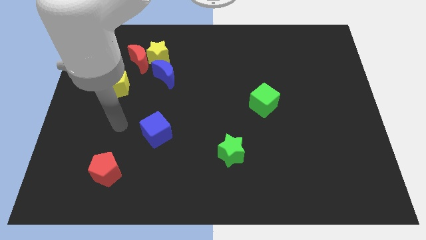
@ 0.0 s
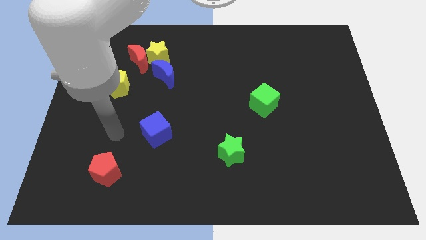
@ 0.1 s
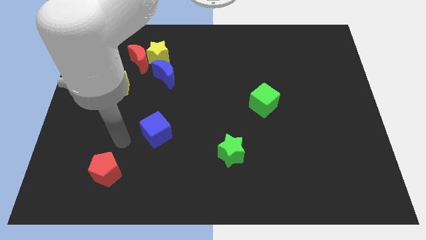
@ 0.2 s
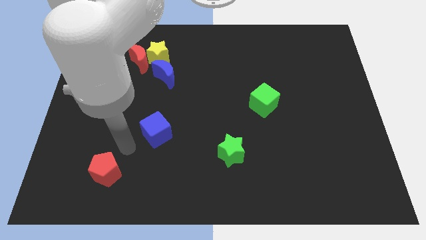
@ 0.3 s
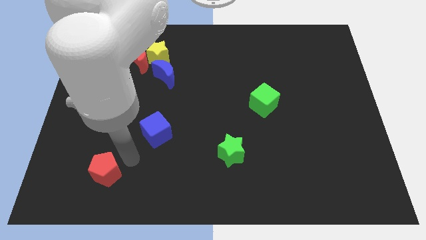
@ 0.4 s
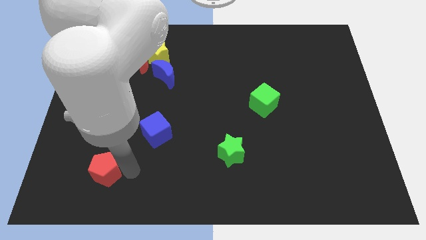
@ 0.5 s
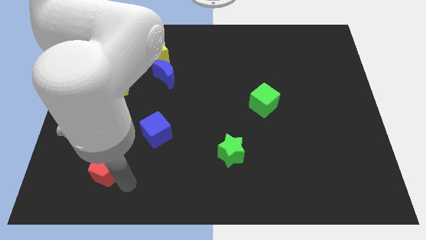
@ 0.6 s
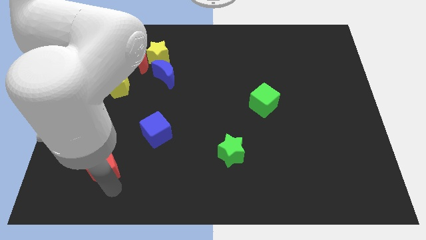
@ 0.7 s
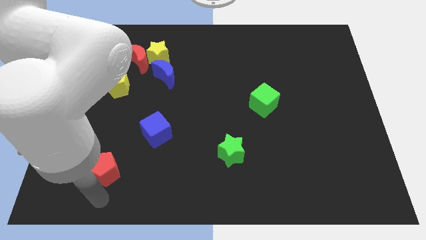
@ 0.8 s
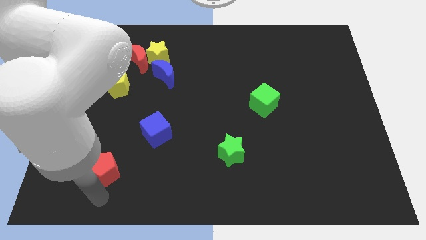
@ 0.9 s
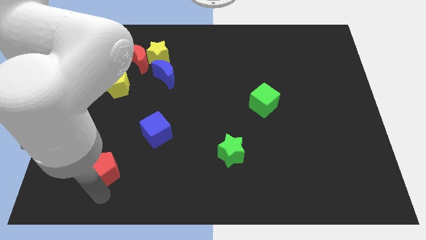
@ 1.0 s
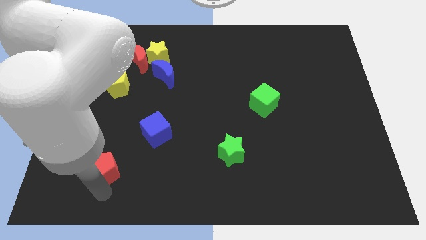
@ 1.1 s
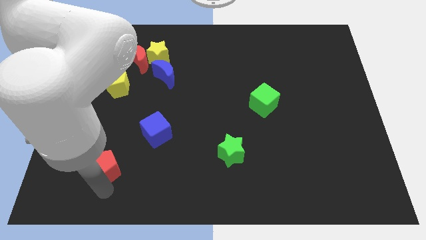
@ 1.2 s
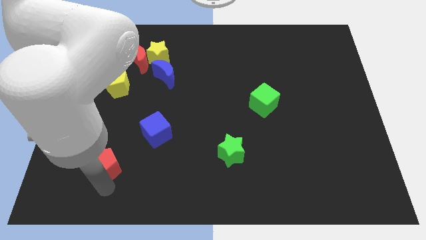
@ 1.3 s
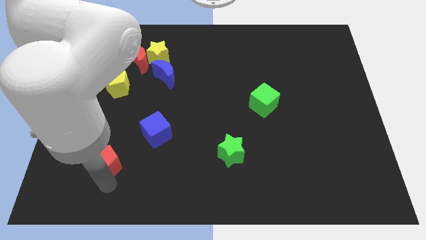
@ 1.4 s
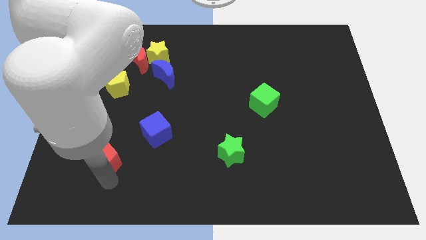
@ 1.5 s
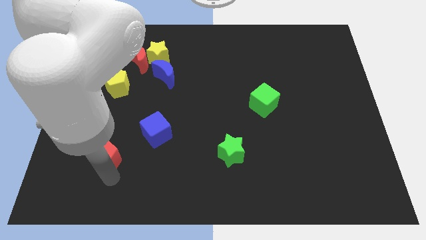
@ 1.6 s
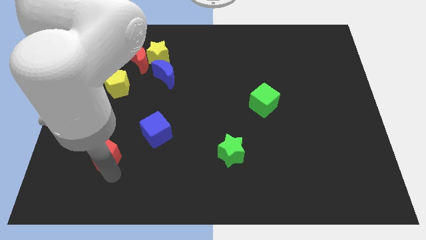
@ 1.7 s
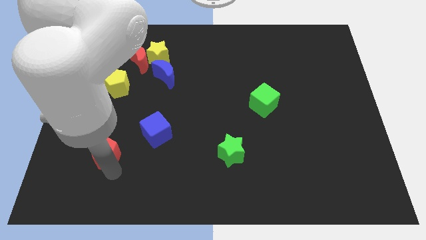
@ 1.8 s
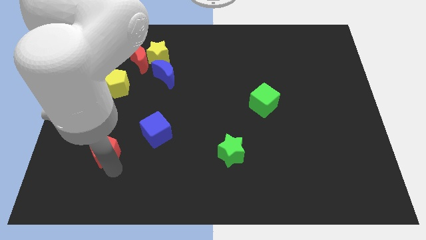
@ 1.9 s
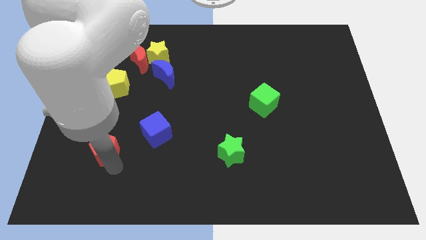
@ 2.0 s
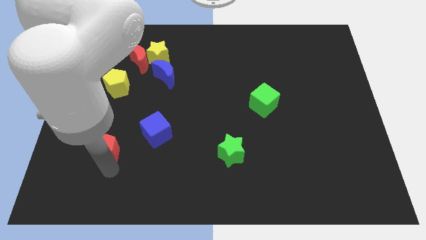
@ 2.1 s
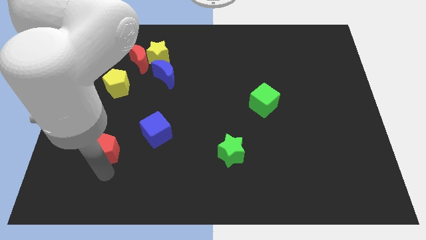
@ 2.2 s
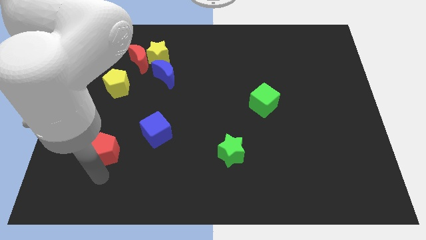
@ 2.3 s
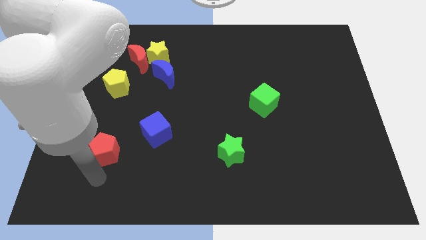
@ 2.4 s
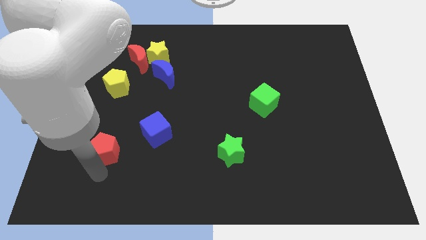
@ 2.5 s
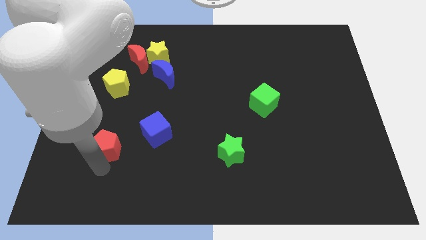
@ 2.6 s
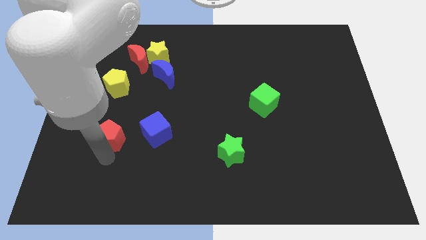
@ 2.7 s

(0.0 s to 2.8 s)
slightly push the red pentagon up

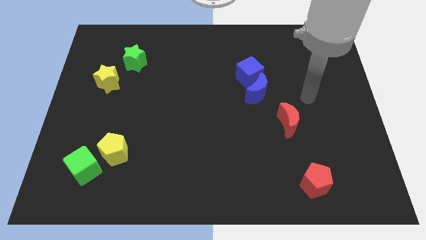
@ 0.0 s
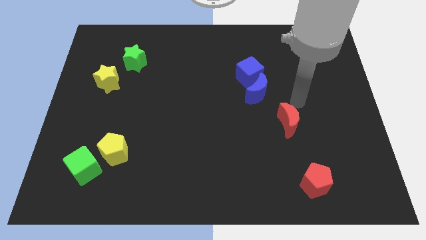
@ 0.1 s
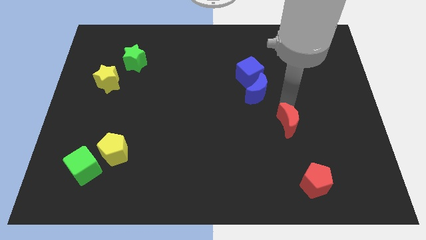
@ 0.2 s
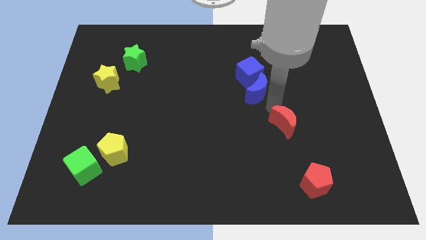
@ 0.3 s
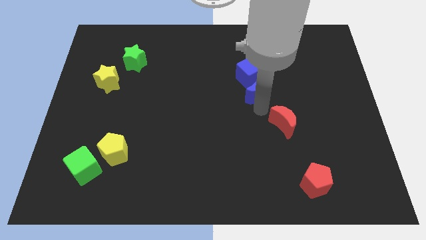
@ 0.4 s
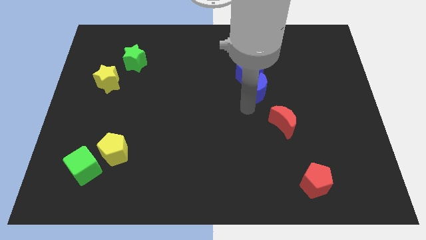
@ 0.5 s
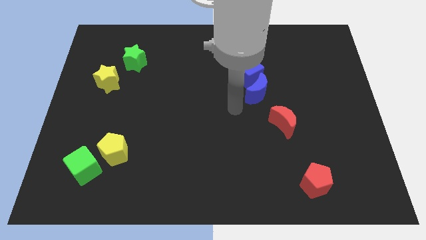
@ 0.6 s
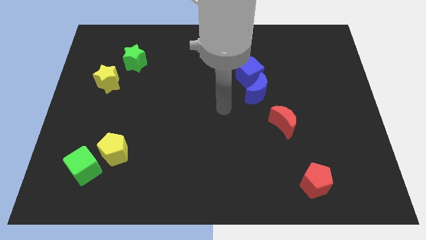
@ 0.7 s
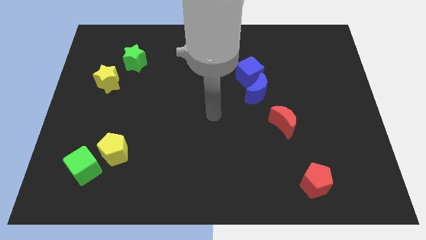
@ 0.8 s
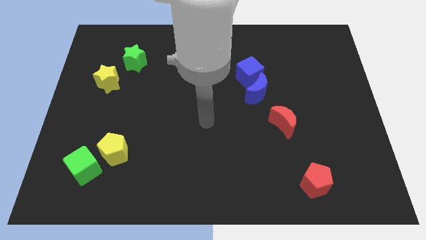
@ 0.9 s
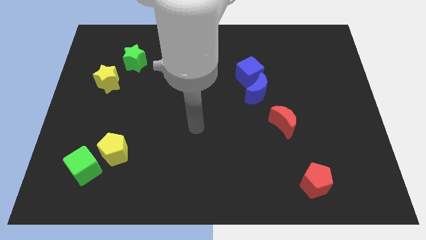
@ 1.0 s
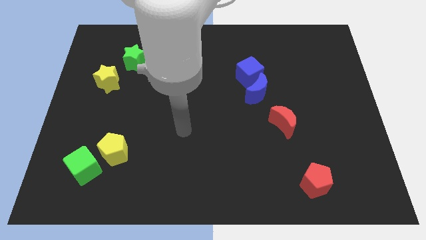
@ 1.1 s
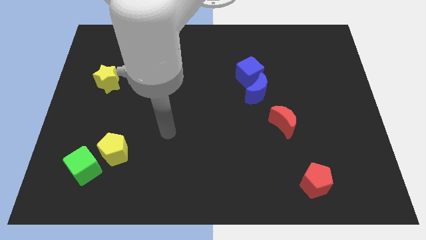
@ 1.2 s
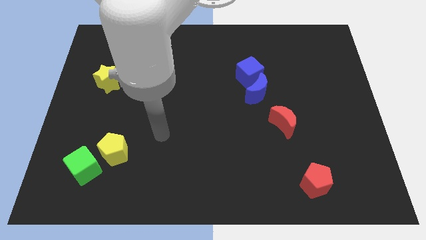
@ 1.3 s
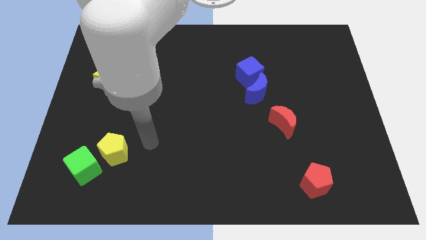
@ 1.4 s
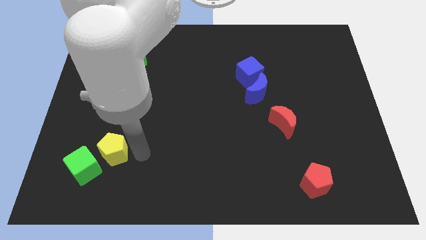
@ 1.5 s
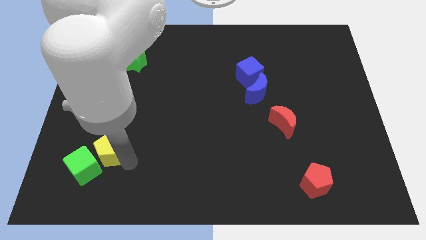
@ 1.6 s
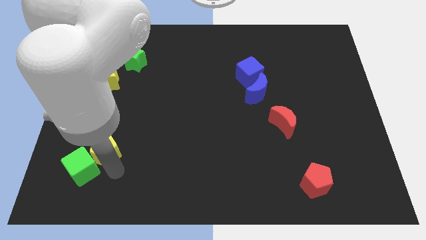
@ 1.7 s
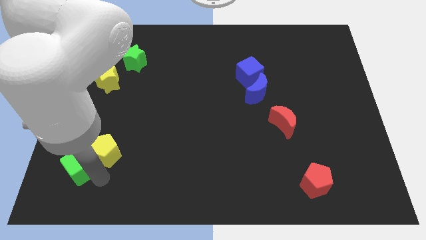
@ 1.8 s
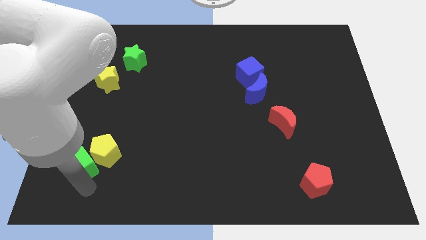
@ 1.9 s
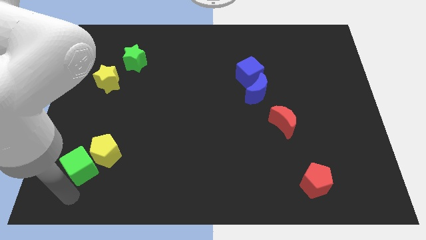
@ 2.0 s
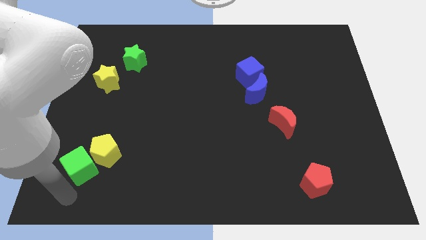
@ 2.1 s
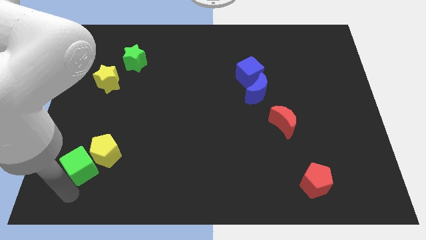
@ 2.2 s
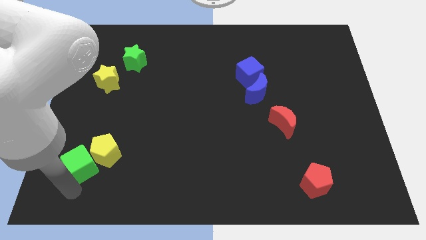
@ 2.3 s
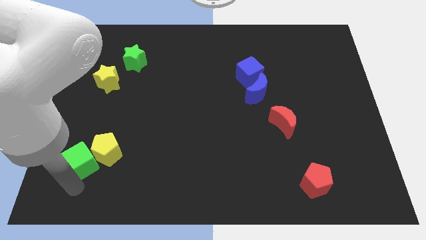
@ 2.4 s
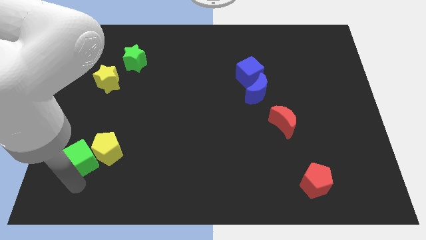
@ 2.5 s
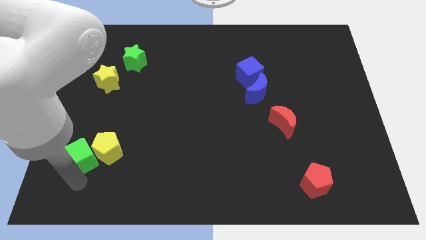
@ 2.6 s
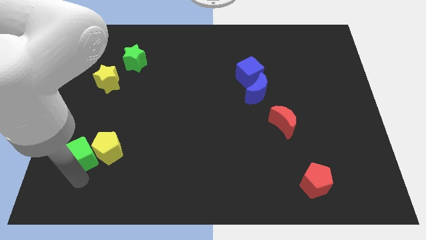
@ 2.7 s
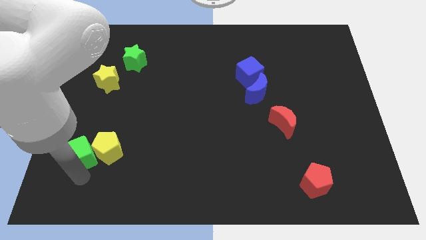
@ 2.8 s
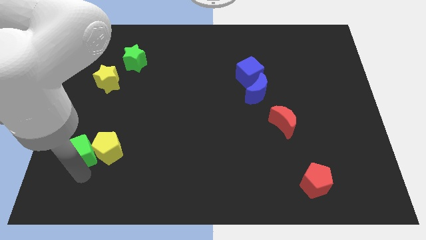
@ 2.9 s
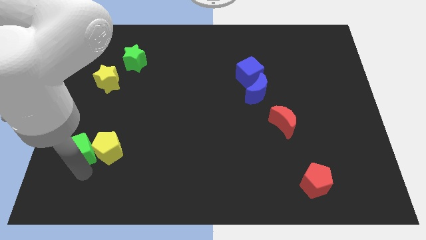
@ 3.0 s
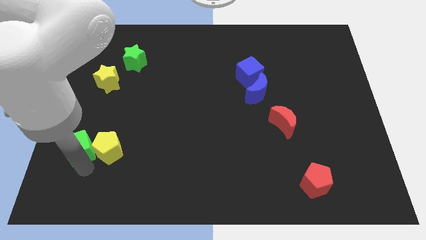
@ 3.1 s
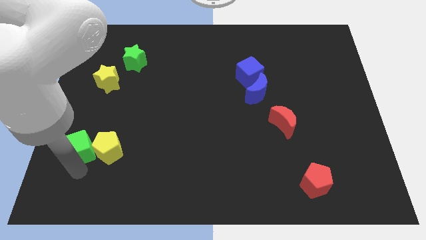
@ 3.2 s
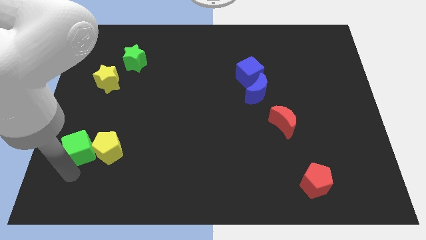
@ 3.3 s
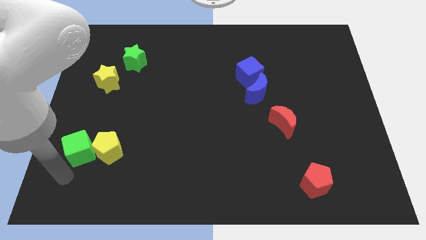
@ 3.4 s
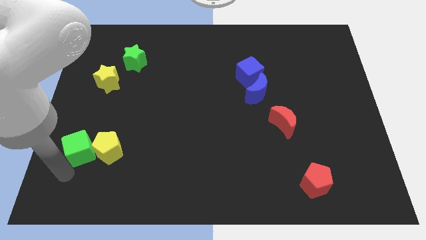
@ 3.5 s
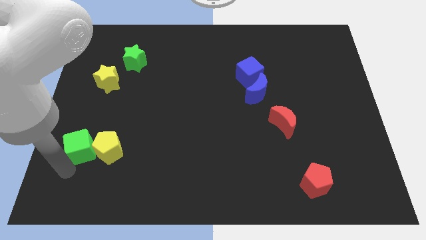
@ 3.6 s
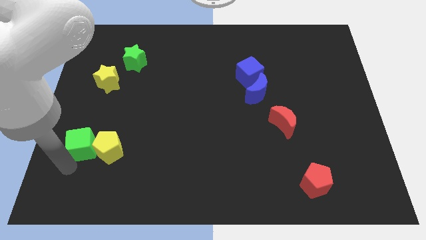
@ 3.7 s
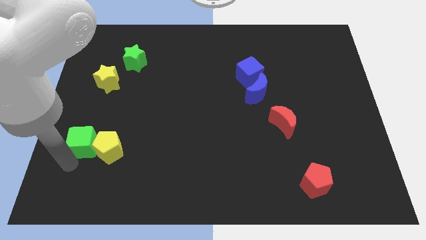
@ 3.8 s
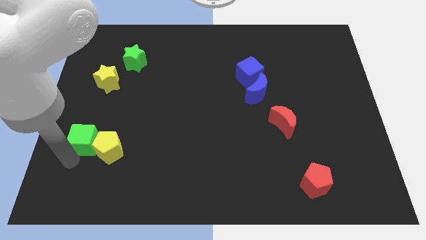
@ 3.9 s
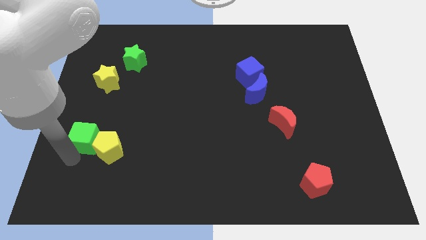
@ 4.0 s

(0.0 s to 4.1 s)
slide the green cube a little upwards

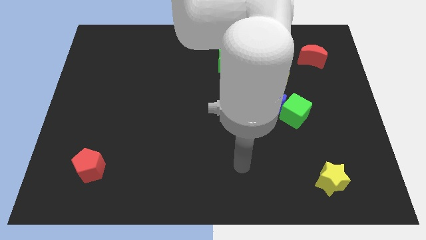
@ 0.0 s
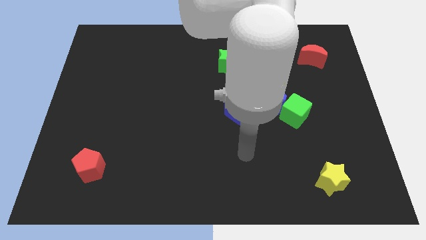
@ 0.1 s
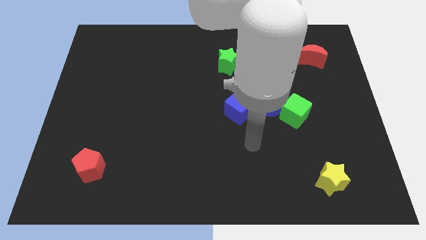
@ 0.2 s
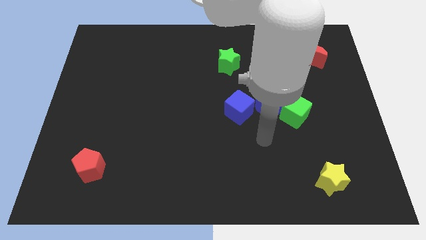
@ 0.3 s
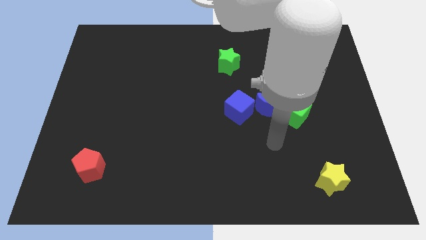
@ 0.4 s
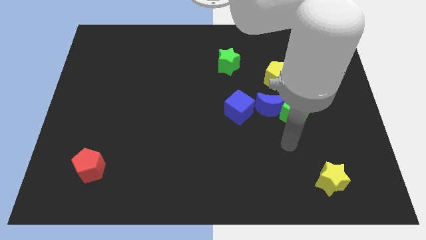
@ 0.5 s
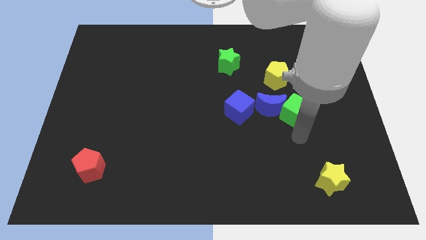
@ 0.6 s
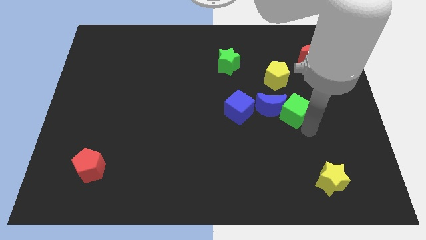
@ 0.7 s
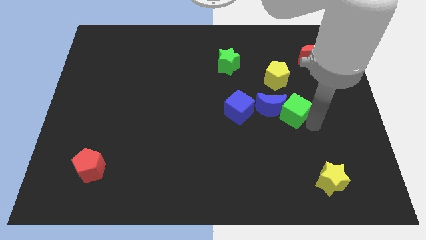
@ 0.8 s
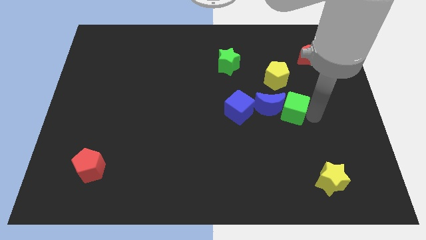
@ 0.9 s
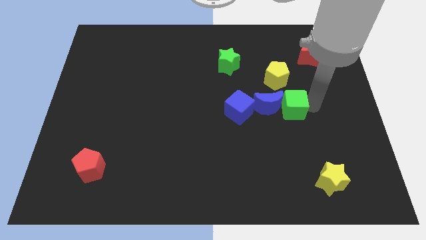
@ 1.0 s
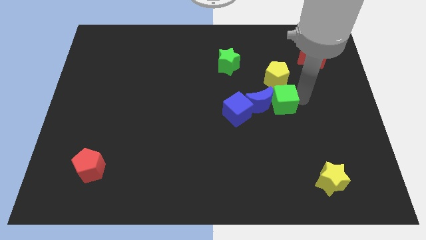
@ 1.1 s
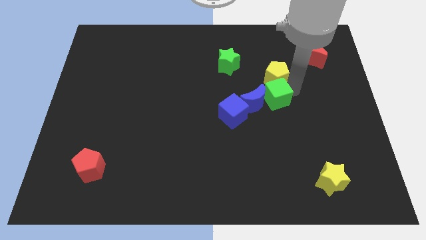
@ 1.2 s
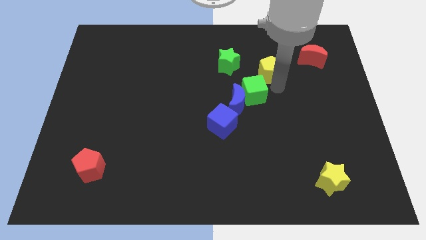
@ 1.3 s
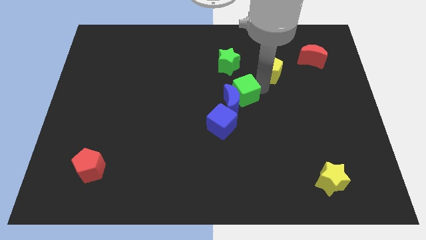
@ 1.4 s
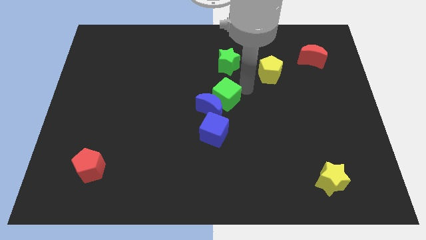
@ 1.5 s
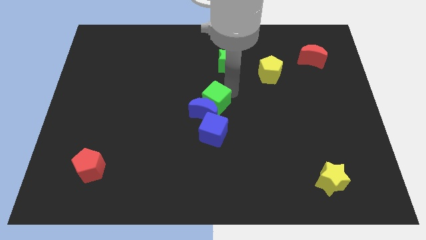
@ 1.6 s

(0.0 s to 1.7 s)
slightly slide the blue moon downwards and then left
